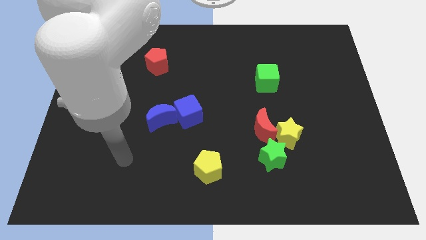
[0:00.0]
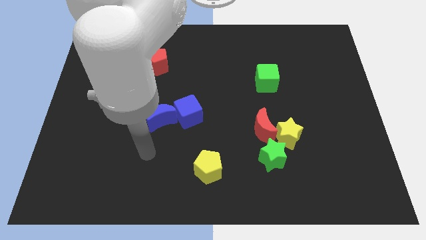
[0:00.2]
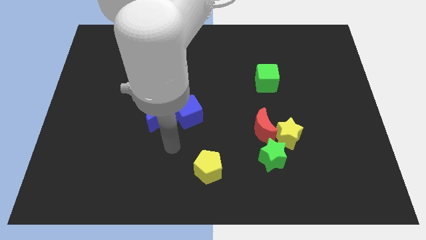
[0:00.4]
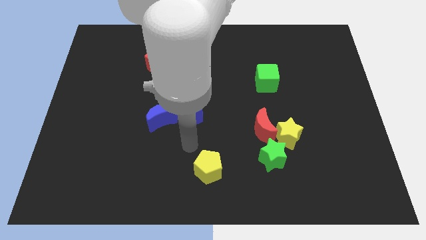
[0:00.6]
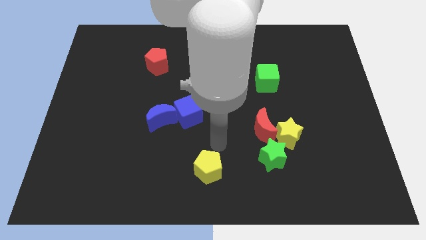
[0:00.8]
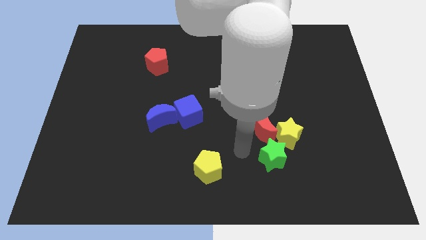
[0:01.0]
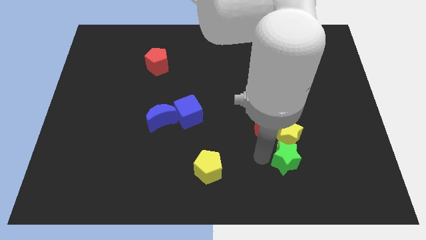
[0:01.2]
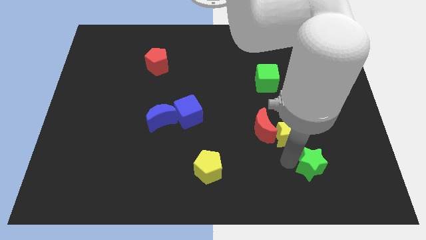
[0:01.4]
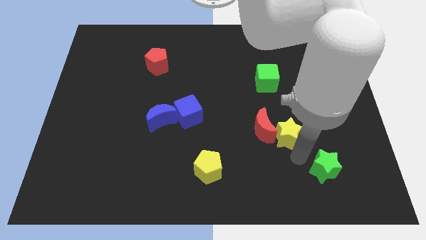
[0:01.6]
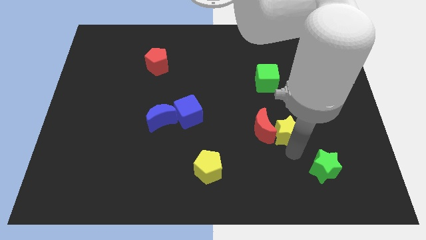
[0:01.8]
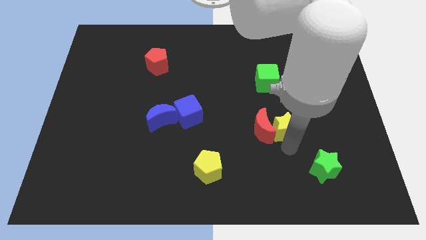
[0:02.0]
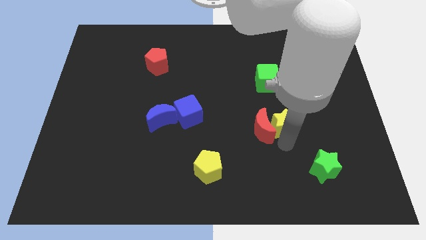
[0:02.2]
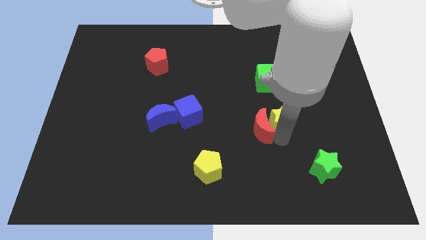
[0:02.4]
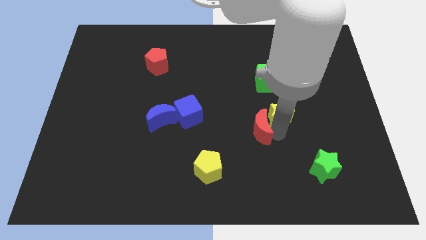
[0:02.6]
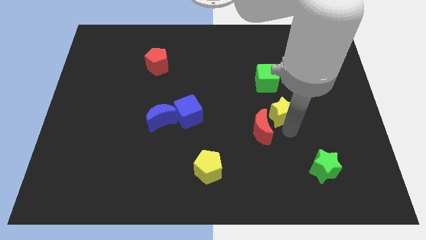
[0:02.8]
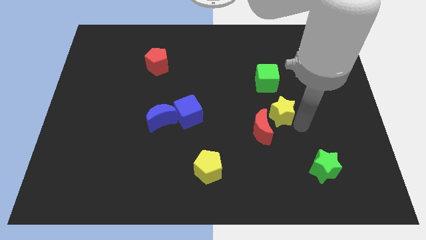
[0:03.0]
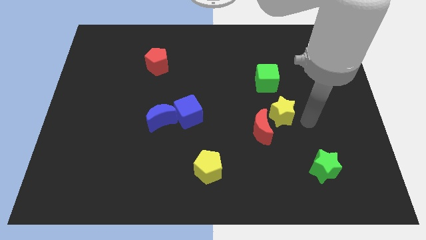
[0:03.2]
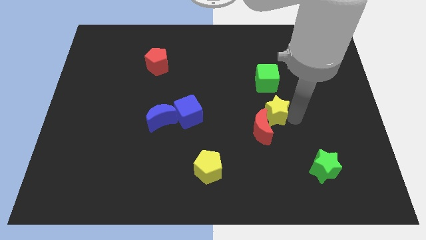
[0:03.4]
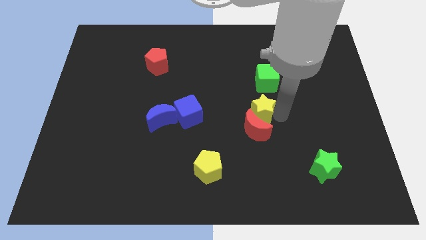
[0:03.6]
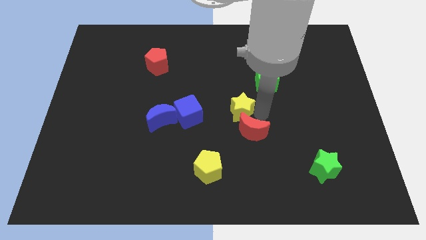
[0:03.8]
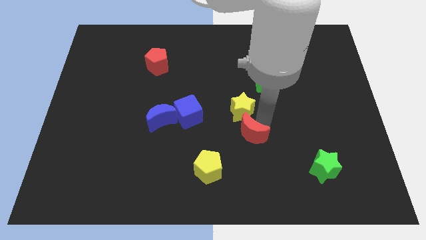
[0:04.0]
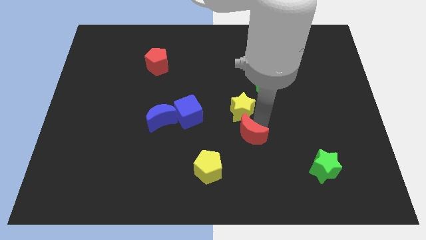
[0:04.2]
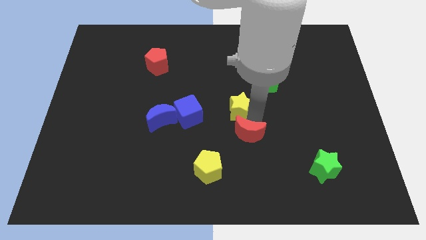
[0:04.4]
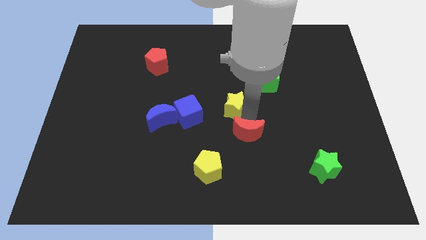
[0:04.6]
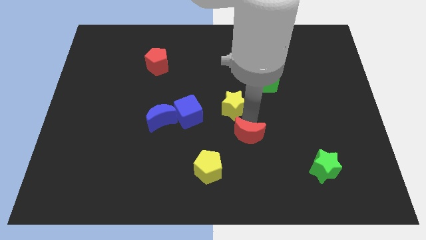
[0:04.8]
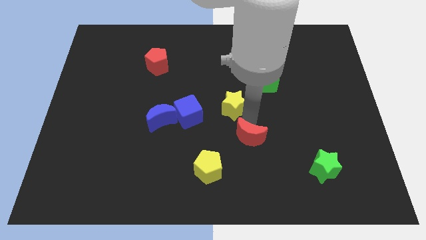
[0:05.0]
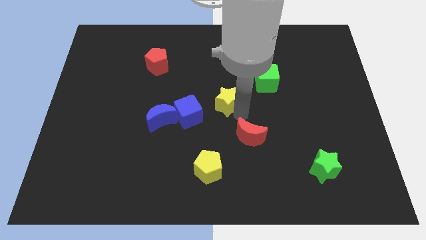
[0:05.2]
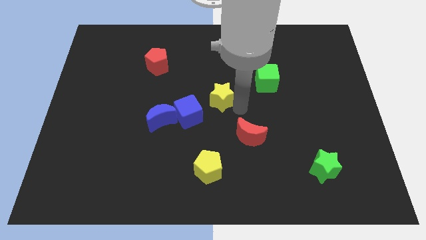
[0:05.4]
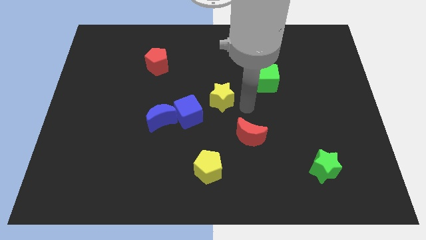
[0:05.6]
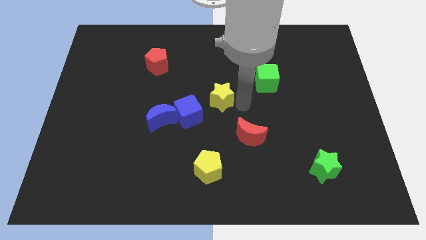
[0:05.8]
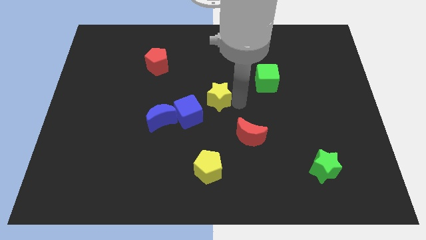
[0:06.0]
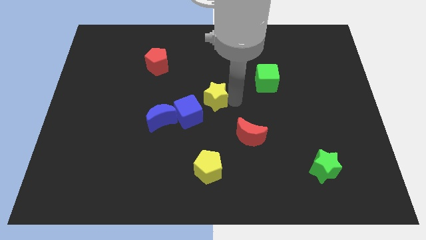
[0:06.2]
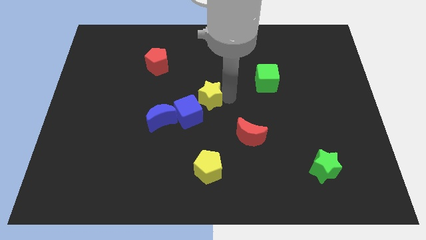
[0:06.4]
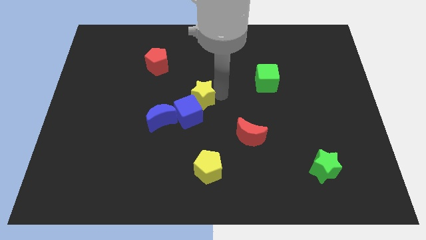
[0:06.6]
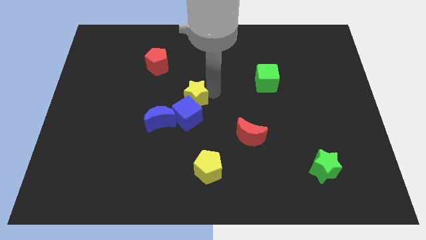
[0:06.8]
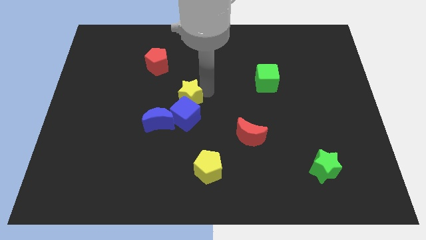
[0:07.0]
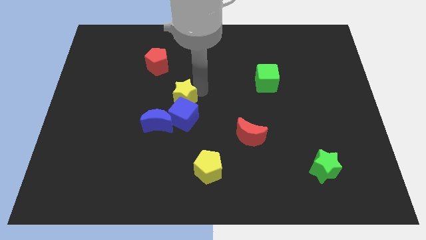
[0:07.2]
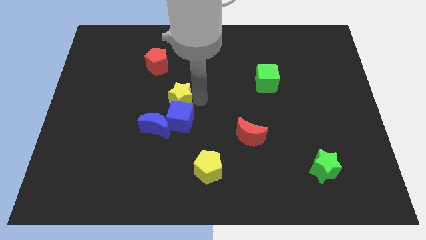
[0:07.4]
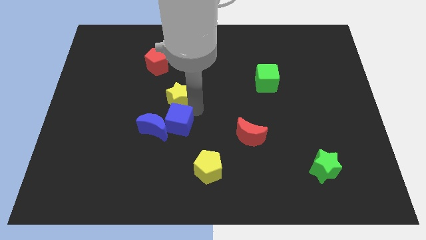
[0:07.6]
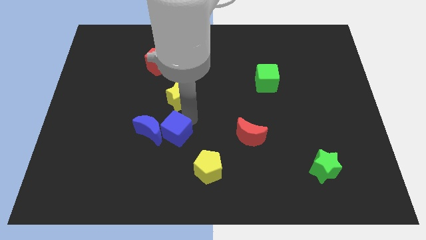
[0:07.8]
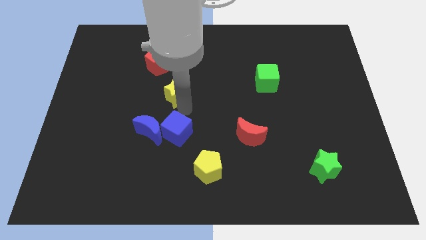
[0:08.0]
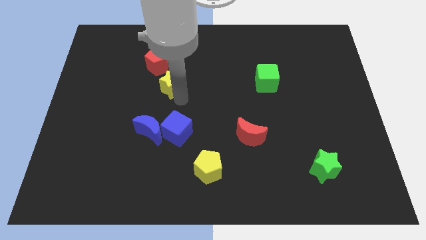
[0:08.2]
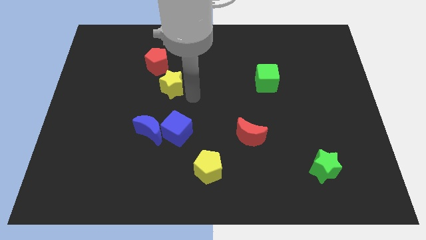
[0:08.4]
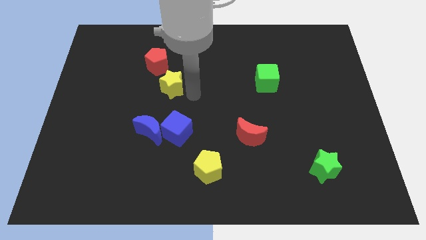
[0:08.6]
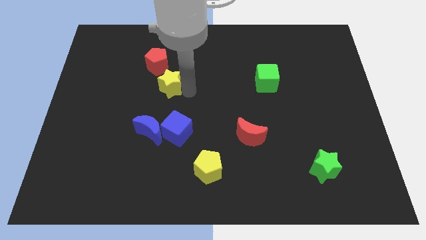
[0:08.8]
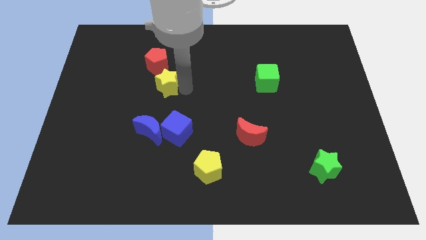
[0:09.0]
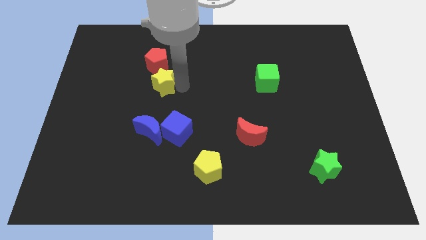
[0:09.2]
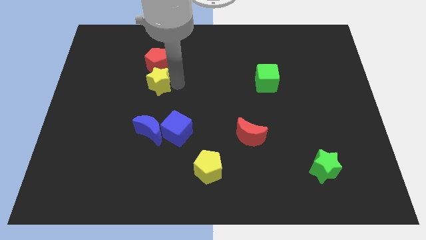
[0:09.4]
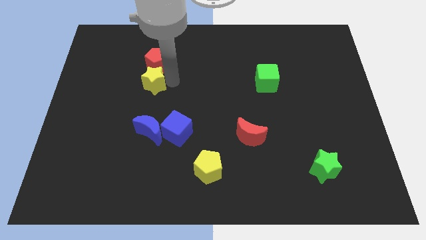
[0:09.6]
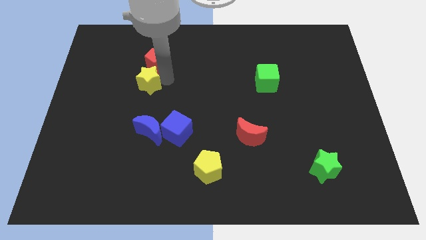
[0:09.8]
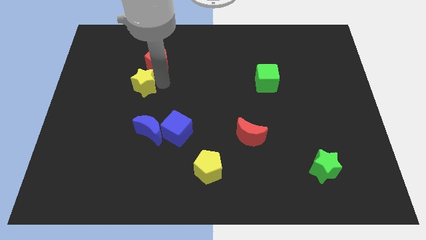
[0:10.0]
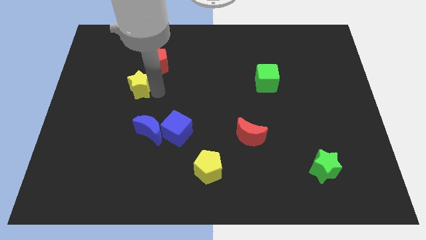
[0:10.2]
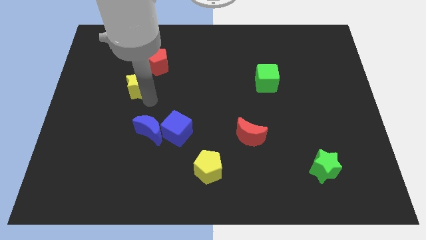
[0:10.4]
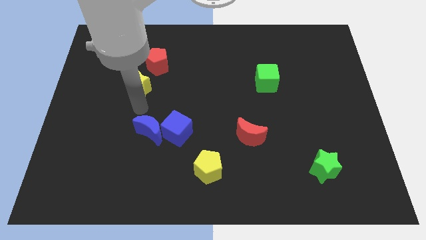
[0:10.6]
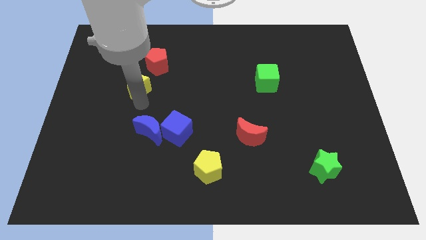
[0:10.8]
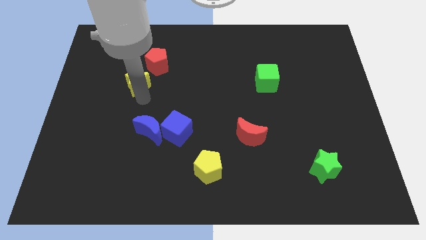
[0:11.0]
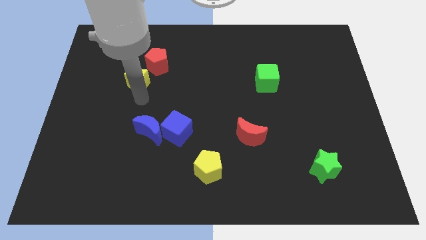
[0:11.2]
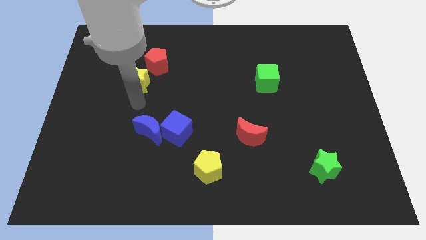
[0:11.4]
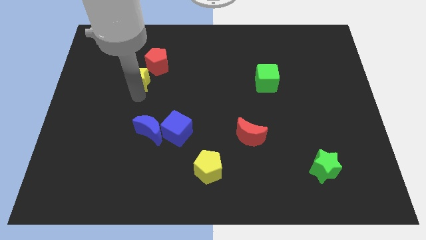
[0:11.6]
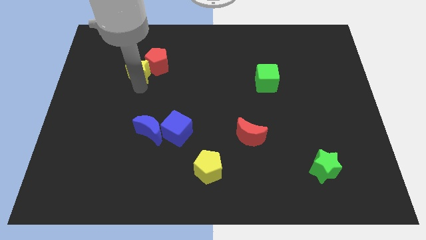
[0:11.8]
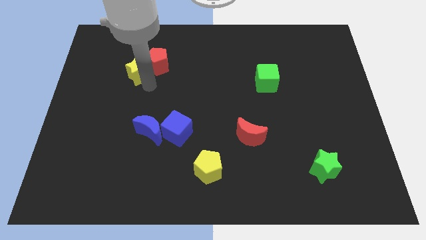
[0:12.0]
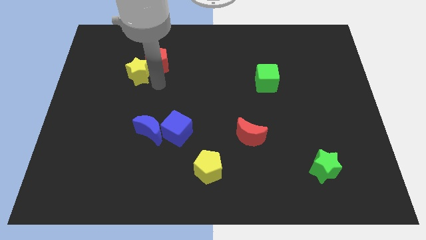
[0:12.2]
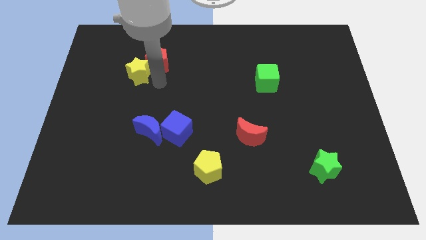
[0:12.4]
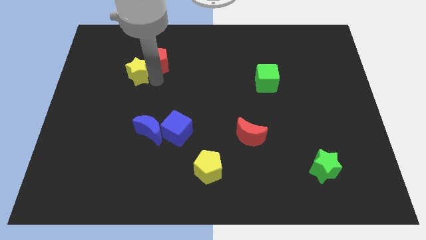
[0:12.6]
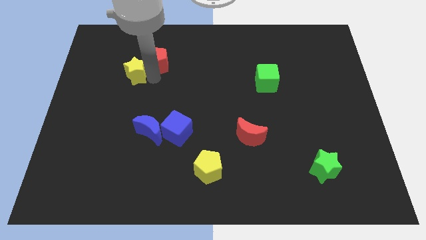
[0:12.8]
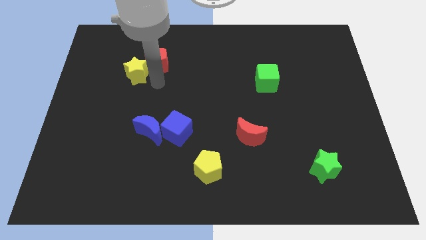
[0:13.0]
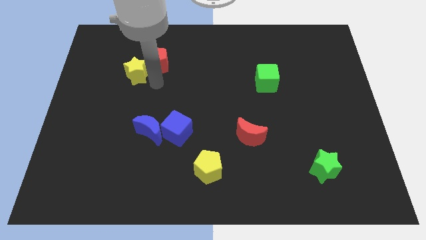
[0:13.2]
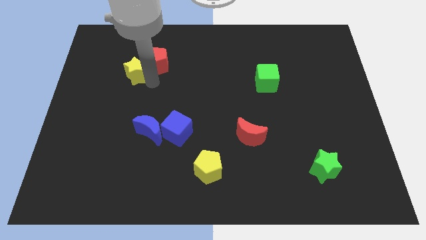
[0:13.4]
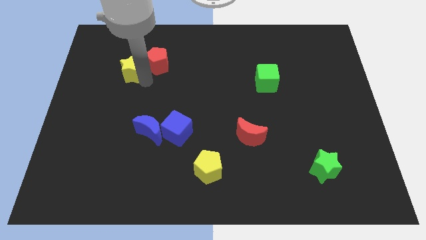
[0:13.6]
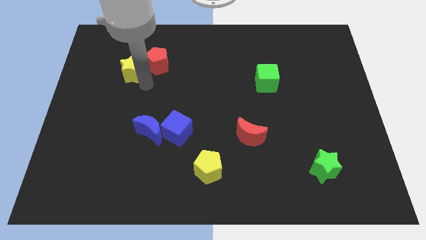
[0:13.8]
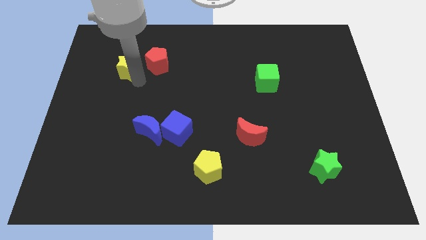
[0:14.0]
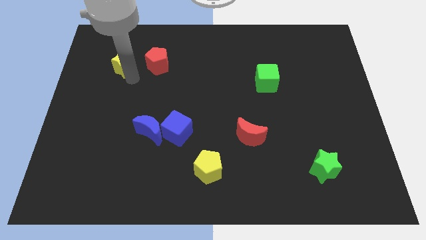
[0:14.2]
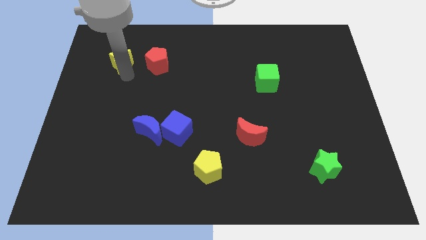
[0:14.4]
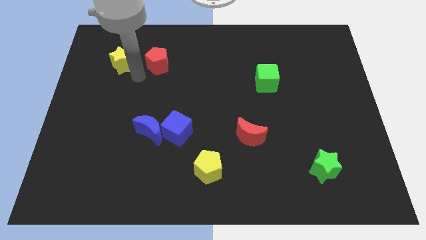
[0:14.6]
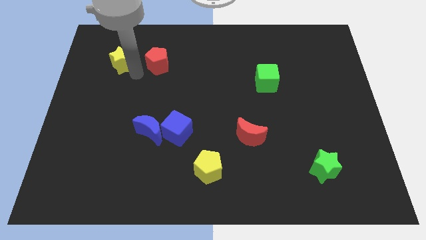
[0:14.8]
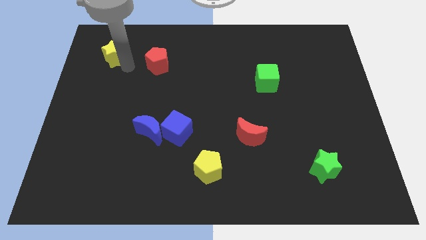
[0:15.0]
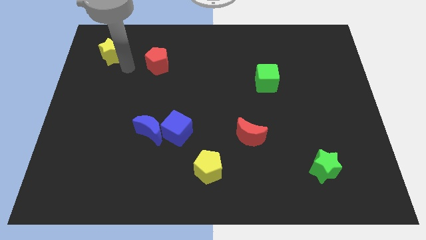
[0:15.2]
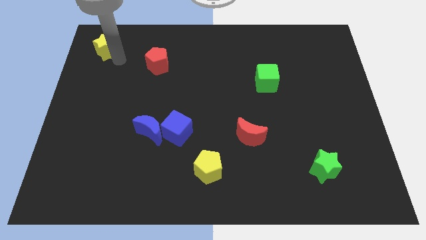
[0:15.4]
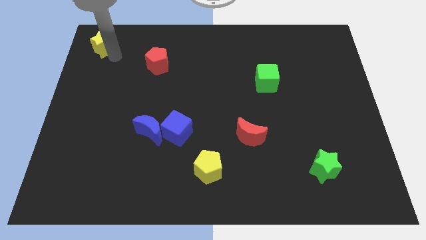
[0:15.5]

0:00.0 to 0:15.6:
put the yellow star to the top left corner
